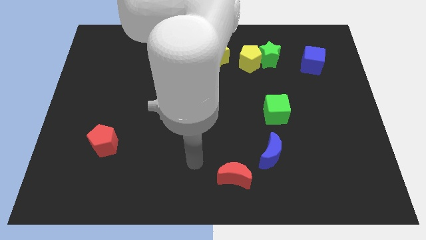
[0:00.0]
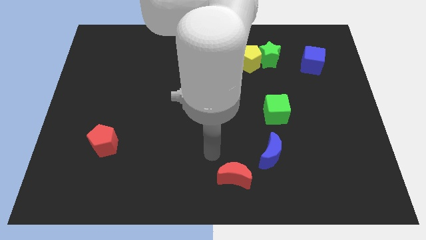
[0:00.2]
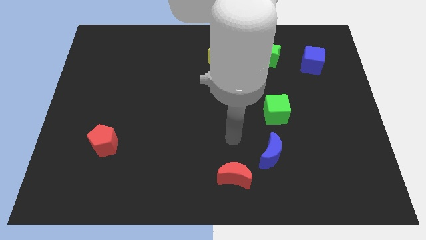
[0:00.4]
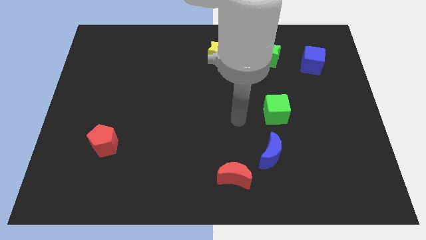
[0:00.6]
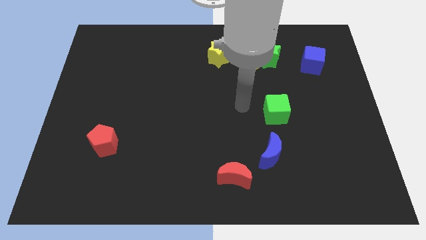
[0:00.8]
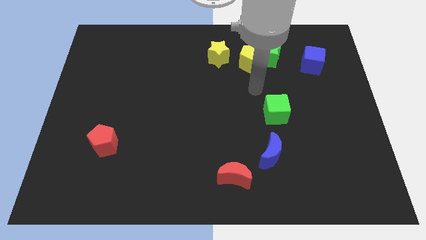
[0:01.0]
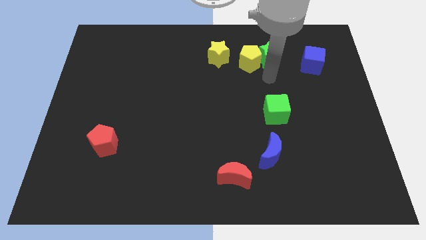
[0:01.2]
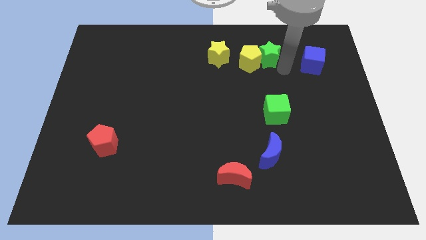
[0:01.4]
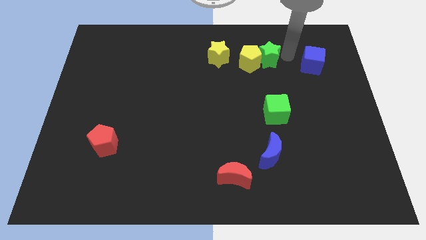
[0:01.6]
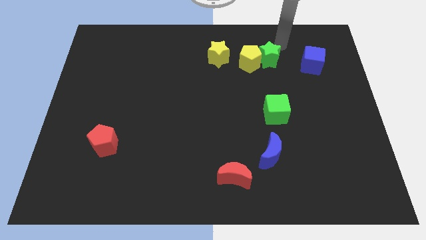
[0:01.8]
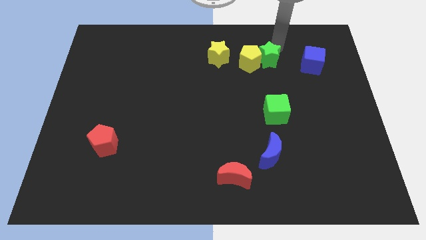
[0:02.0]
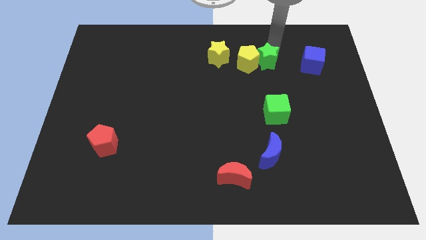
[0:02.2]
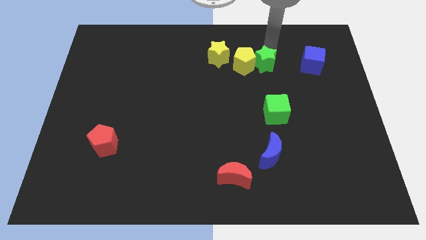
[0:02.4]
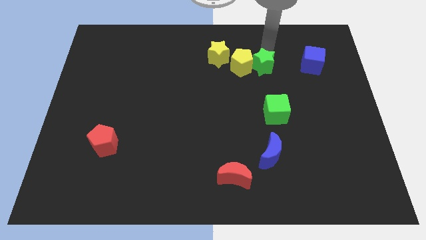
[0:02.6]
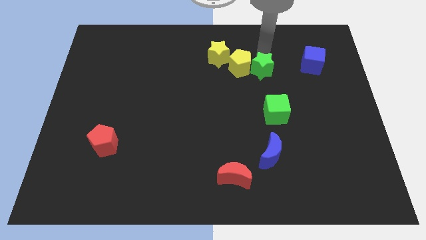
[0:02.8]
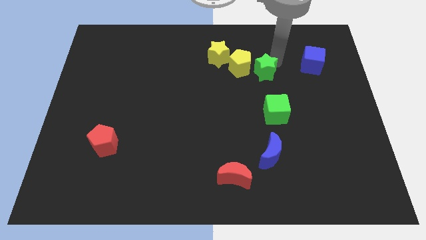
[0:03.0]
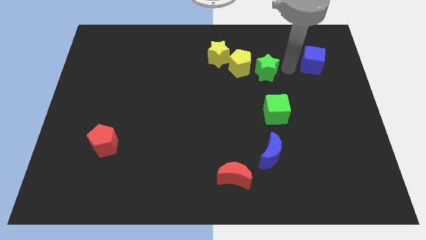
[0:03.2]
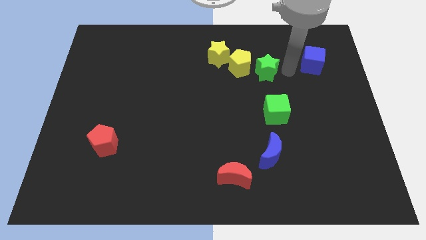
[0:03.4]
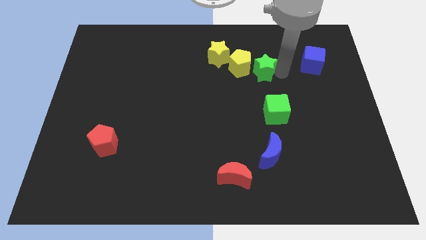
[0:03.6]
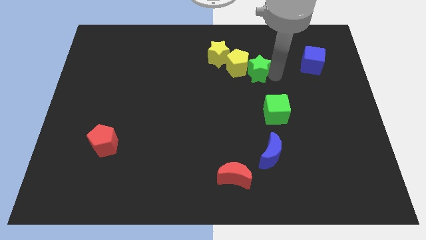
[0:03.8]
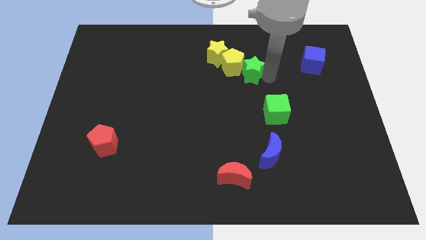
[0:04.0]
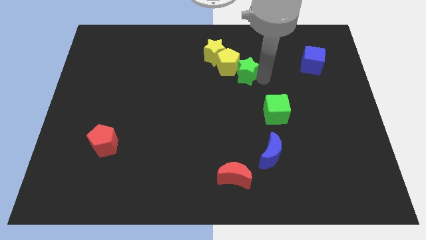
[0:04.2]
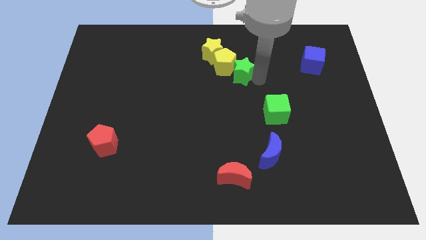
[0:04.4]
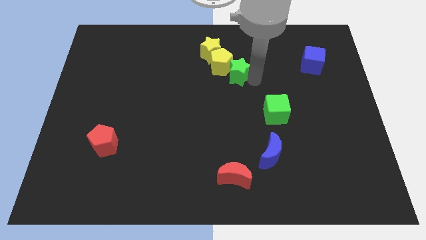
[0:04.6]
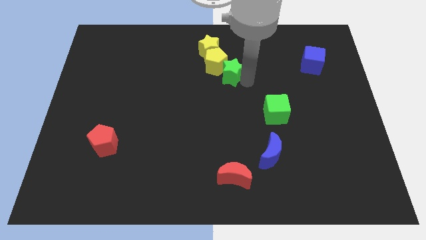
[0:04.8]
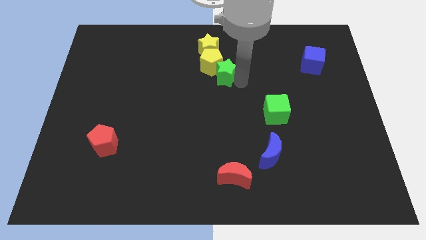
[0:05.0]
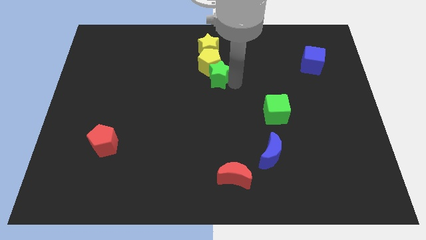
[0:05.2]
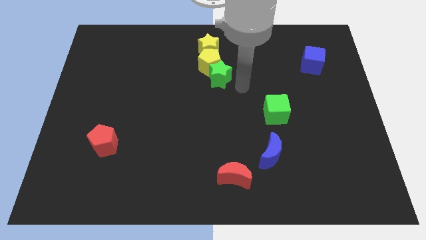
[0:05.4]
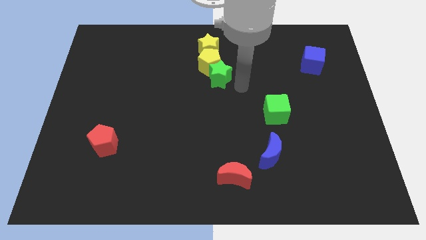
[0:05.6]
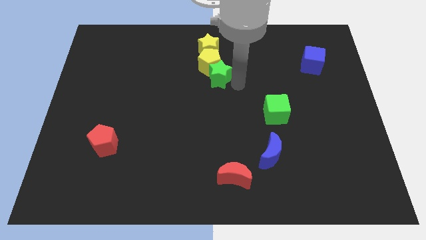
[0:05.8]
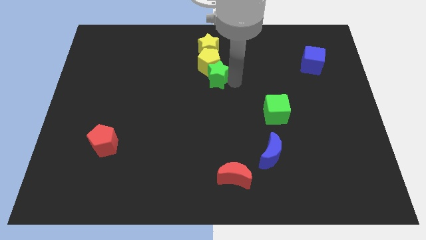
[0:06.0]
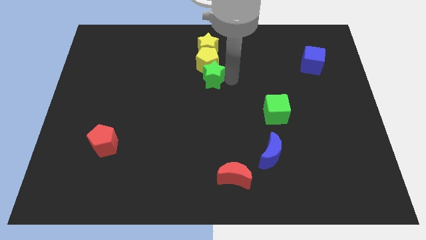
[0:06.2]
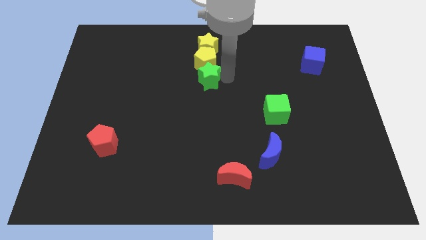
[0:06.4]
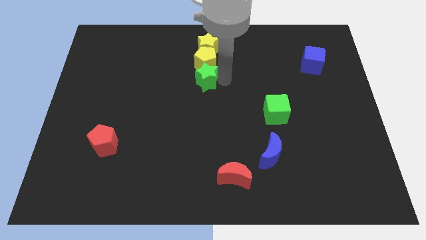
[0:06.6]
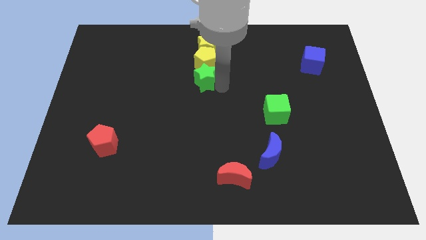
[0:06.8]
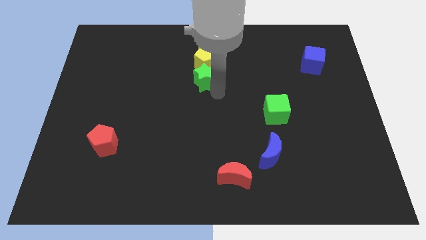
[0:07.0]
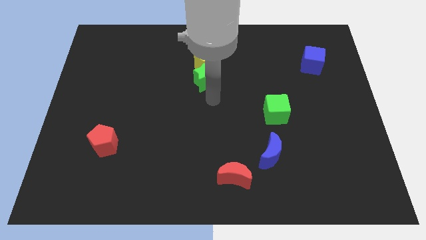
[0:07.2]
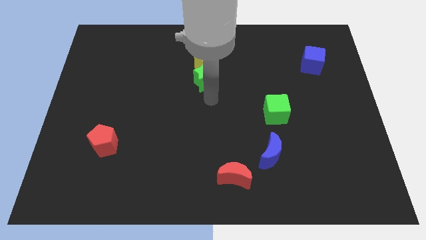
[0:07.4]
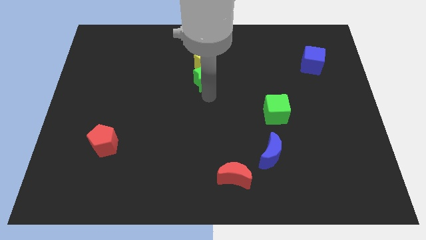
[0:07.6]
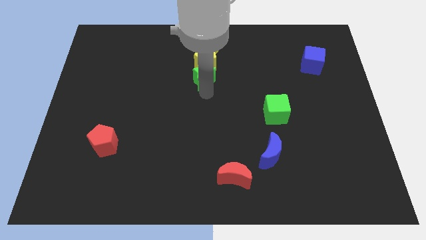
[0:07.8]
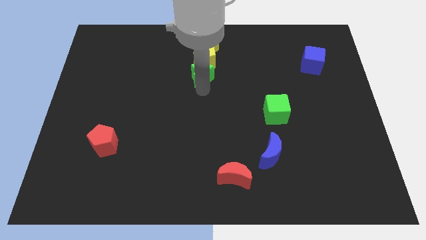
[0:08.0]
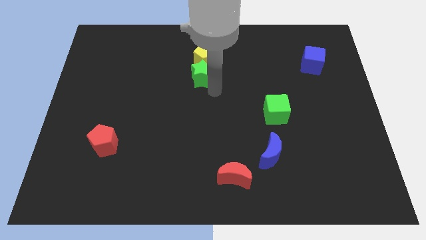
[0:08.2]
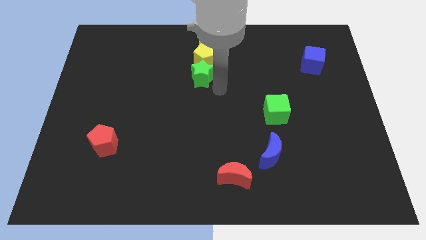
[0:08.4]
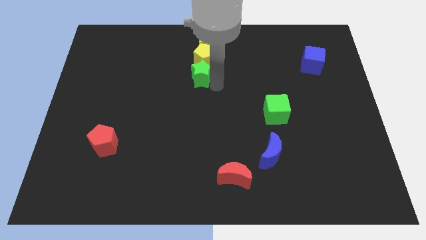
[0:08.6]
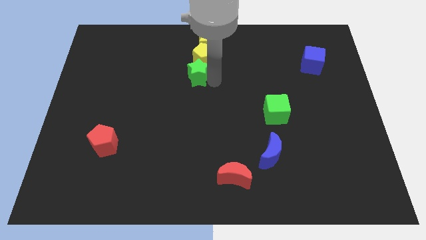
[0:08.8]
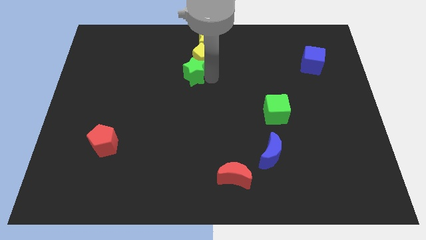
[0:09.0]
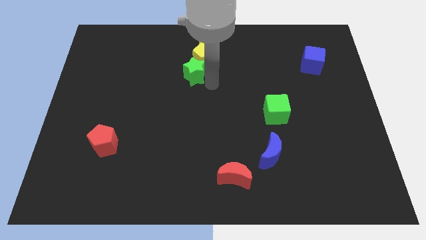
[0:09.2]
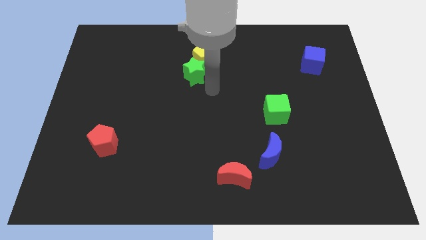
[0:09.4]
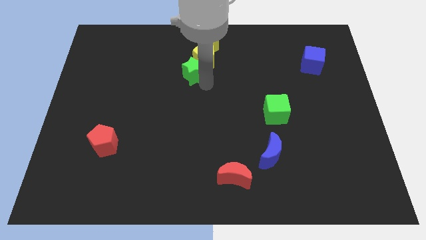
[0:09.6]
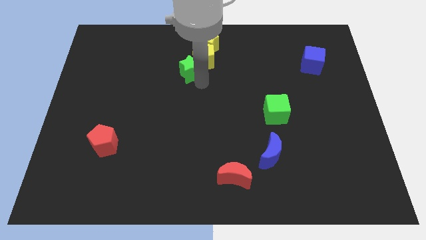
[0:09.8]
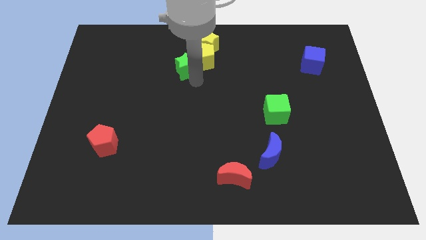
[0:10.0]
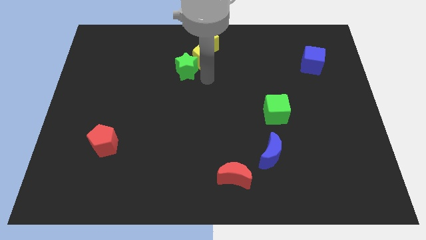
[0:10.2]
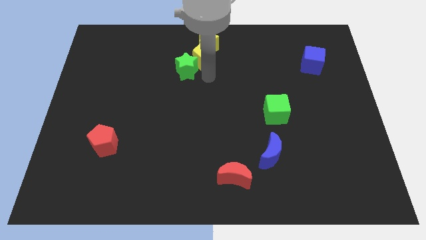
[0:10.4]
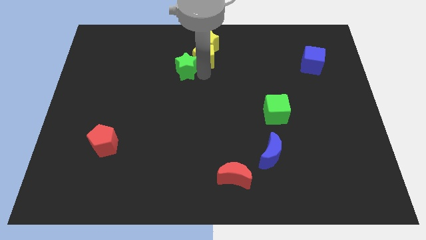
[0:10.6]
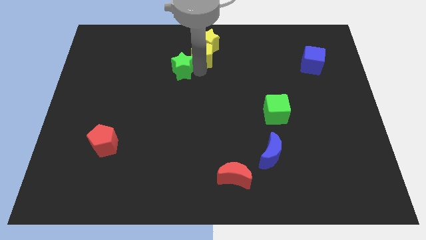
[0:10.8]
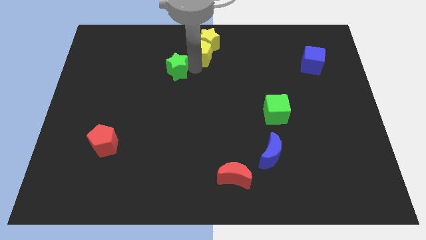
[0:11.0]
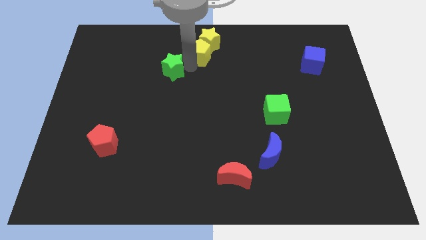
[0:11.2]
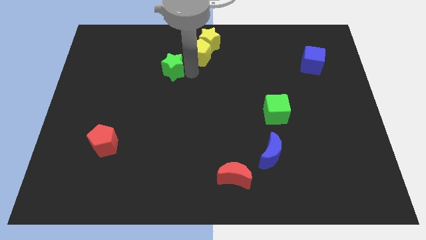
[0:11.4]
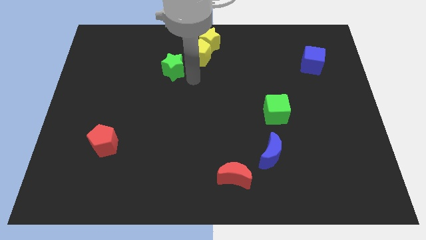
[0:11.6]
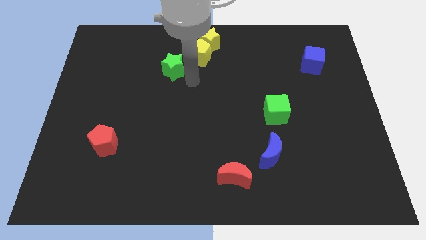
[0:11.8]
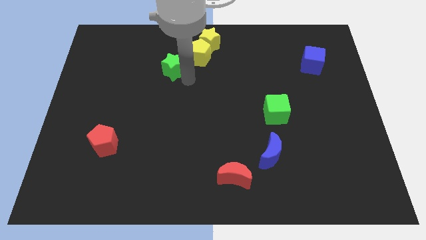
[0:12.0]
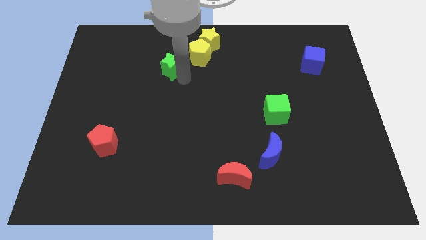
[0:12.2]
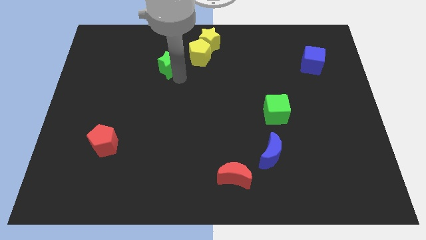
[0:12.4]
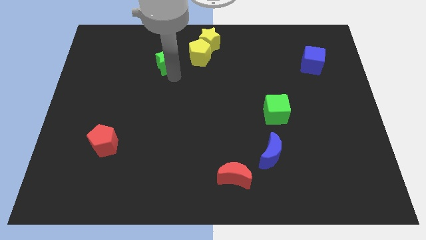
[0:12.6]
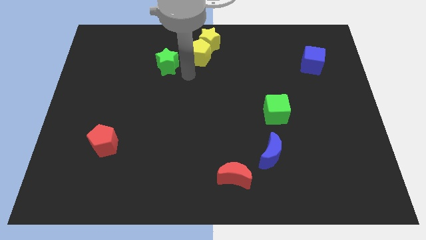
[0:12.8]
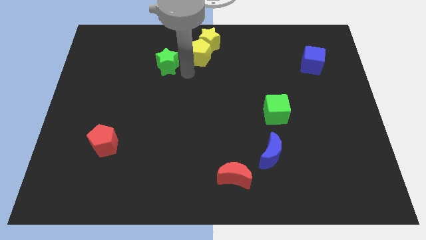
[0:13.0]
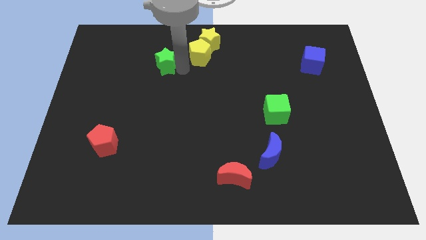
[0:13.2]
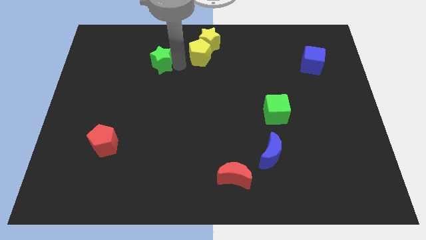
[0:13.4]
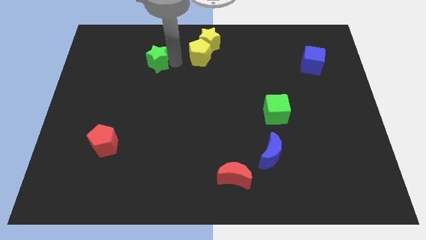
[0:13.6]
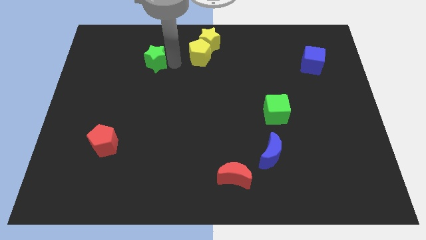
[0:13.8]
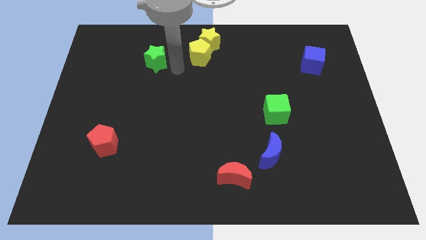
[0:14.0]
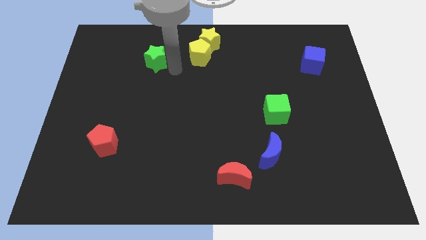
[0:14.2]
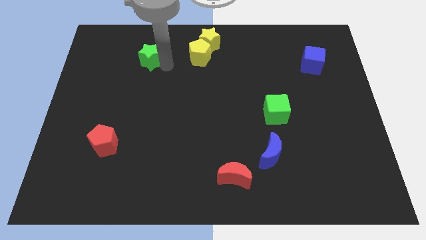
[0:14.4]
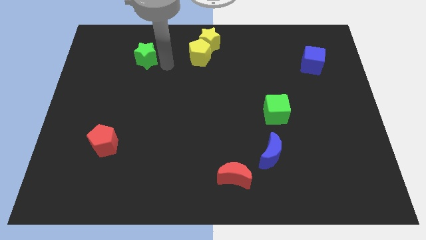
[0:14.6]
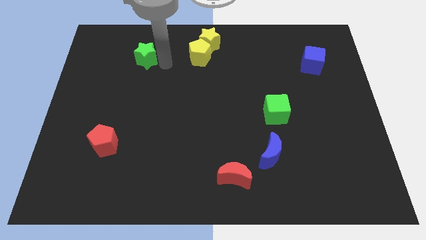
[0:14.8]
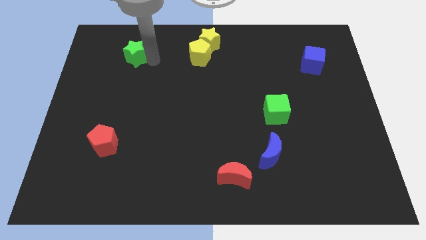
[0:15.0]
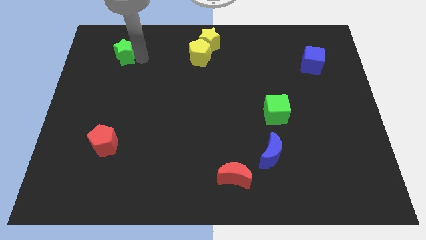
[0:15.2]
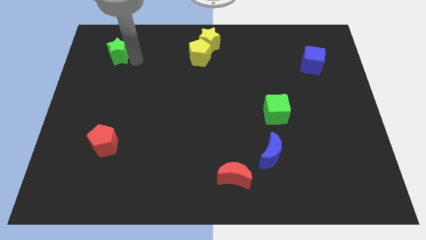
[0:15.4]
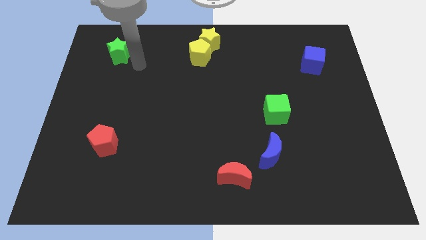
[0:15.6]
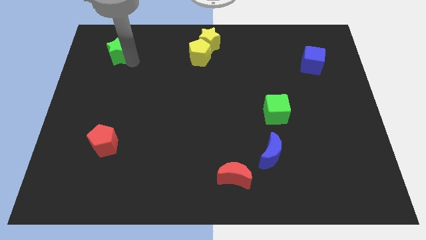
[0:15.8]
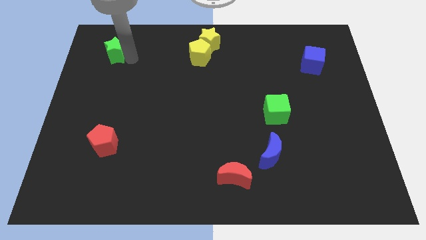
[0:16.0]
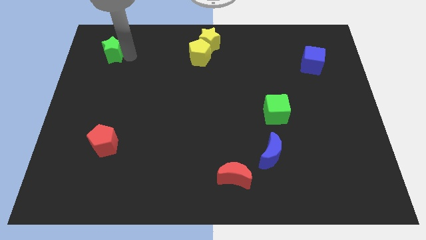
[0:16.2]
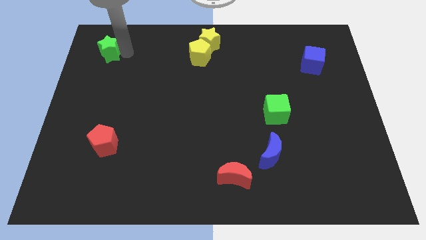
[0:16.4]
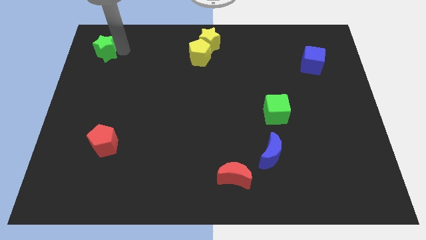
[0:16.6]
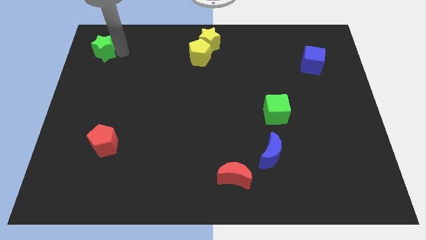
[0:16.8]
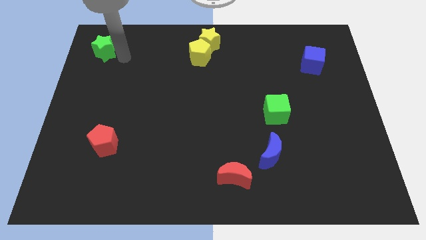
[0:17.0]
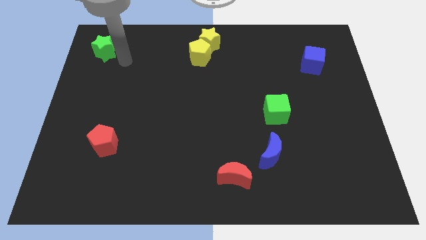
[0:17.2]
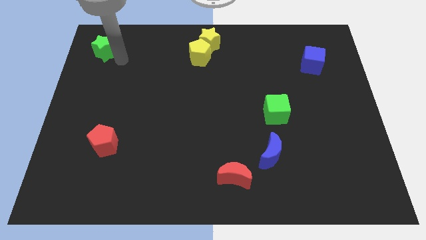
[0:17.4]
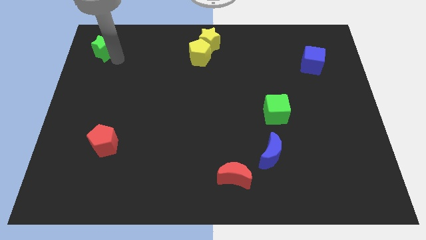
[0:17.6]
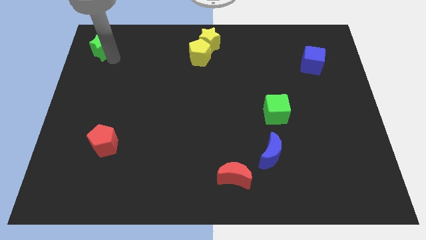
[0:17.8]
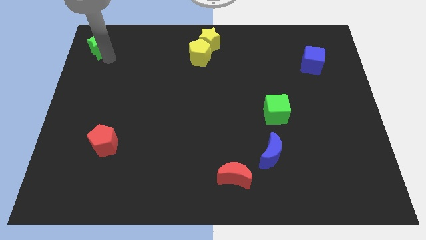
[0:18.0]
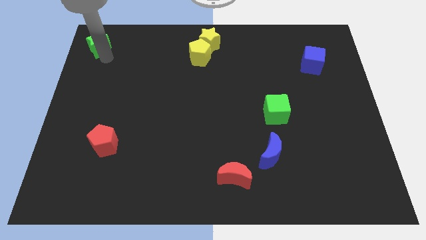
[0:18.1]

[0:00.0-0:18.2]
slide the green star to the top left corner
